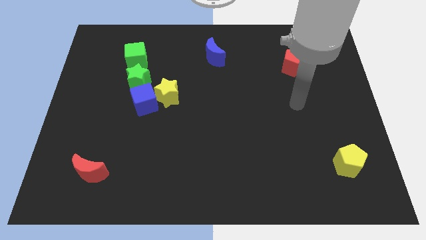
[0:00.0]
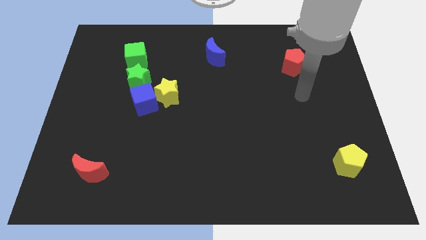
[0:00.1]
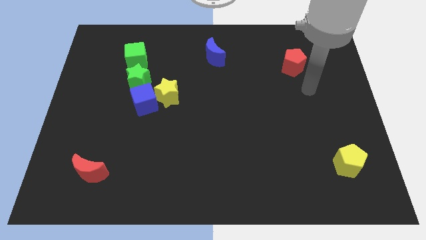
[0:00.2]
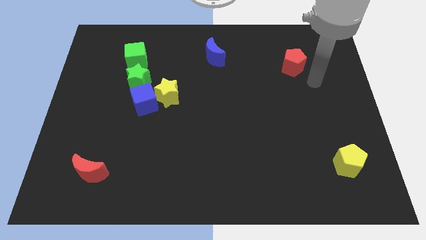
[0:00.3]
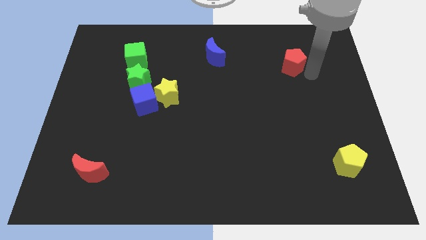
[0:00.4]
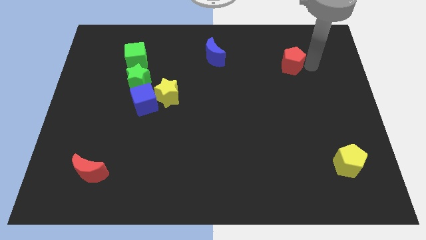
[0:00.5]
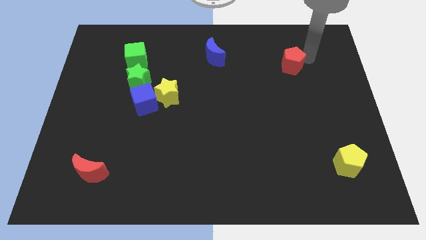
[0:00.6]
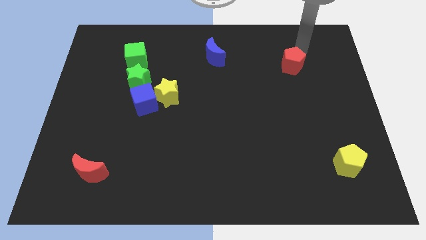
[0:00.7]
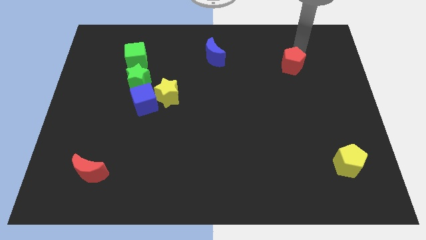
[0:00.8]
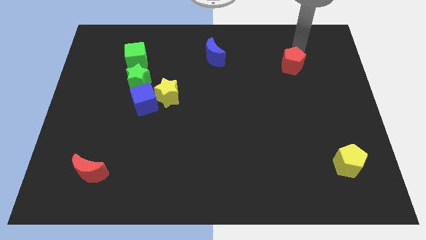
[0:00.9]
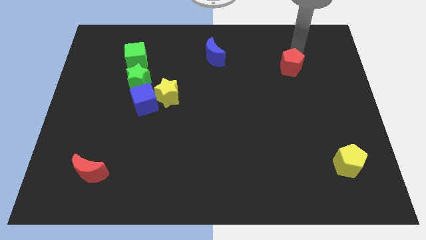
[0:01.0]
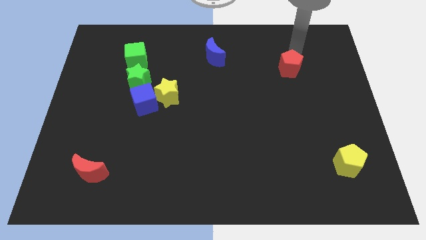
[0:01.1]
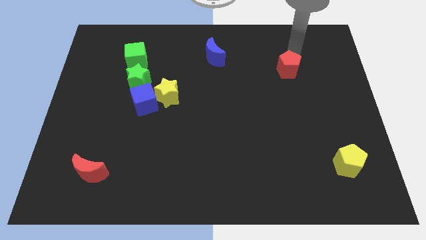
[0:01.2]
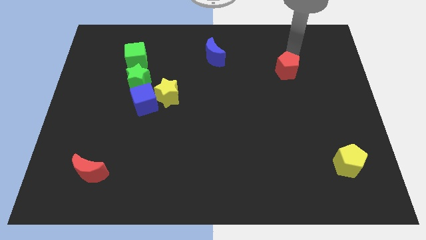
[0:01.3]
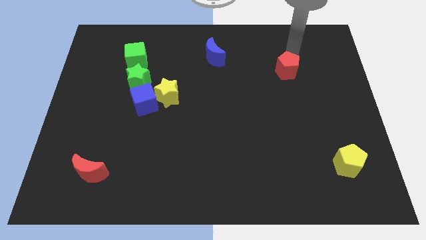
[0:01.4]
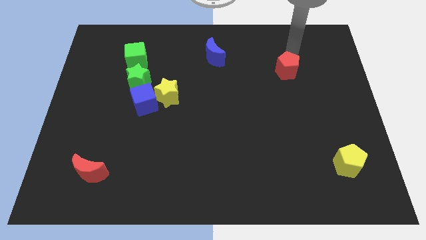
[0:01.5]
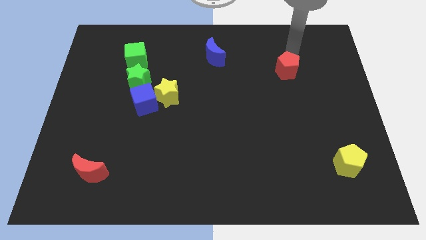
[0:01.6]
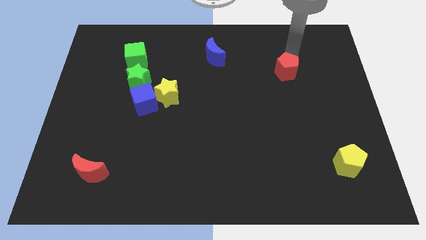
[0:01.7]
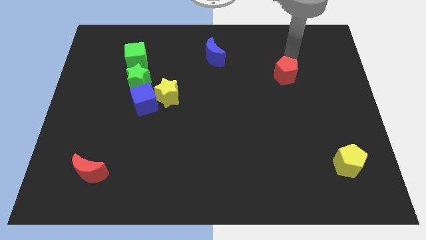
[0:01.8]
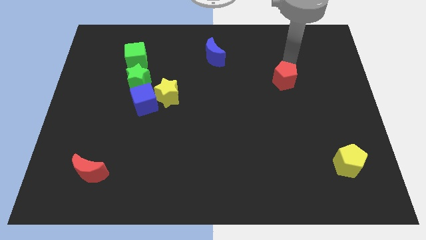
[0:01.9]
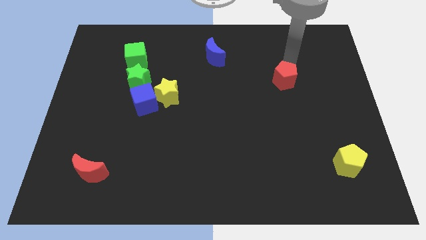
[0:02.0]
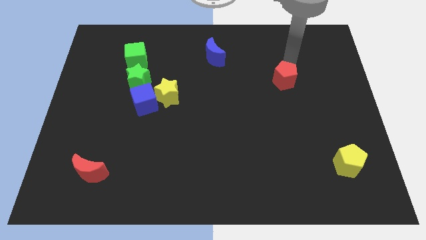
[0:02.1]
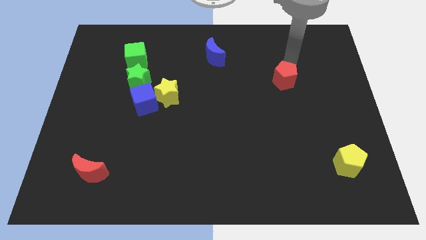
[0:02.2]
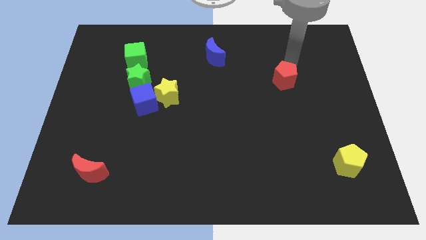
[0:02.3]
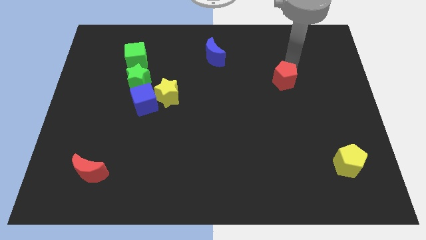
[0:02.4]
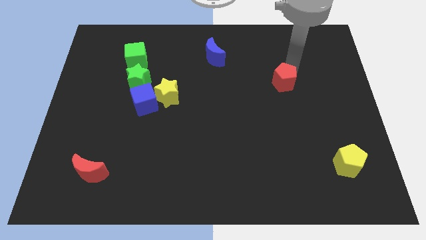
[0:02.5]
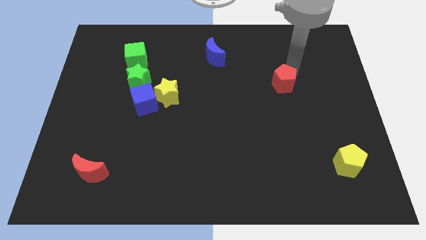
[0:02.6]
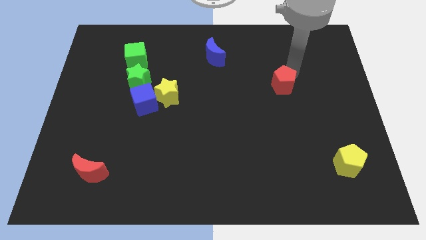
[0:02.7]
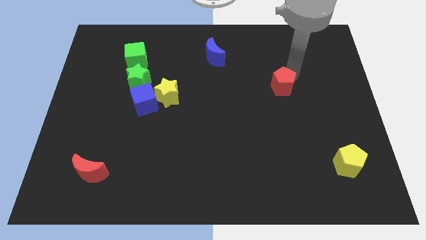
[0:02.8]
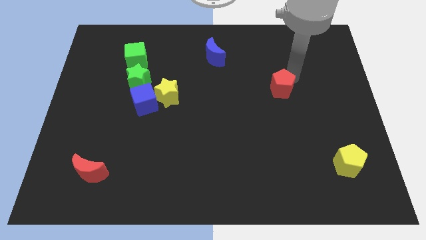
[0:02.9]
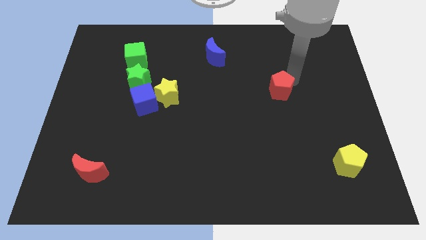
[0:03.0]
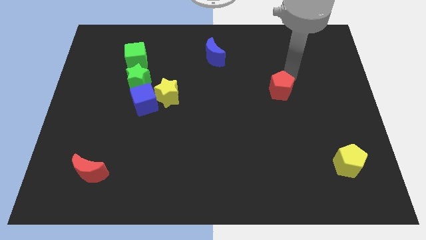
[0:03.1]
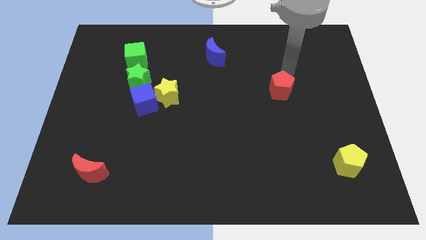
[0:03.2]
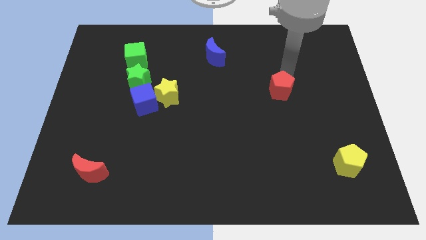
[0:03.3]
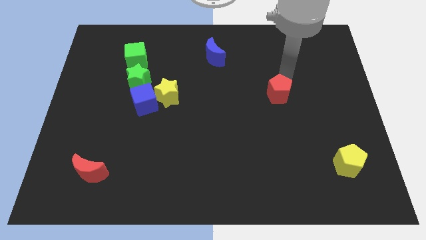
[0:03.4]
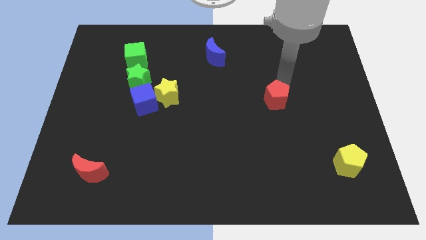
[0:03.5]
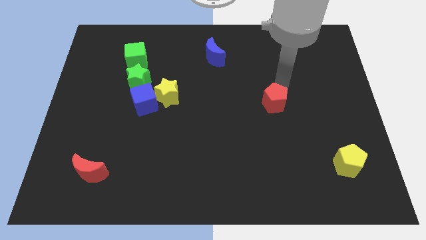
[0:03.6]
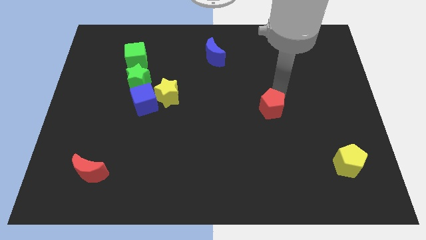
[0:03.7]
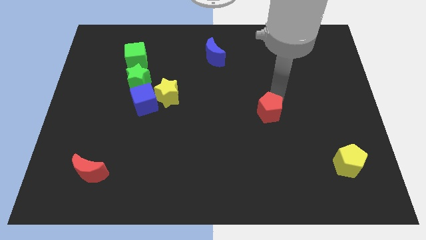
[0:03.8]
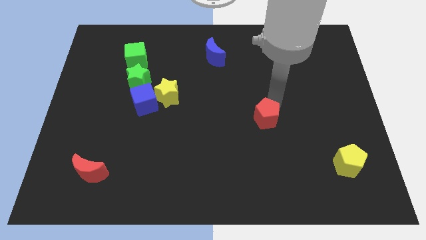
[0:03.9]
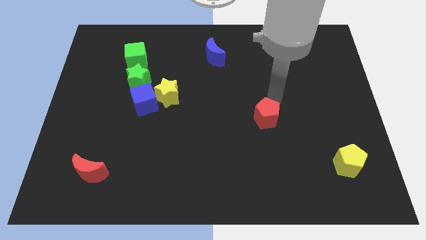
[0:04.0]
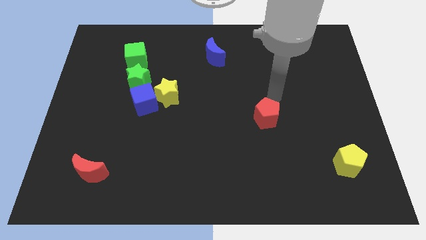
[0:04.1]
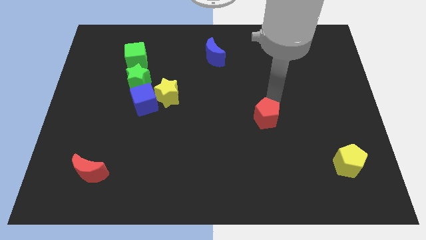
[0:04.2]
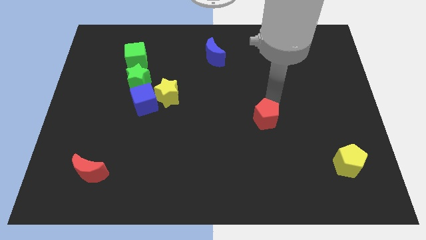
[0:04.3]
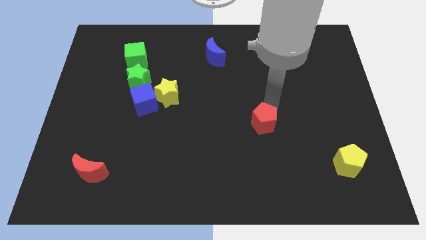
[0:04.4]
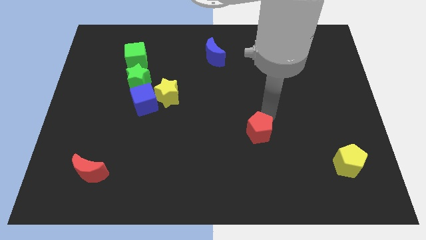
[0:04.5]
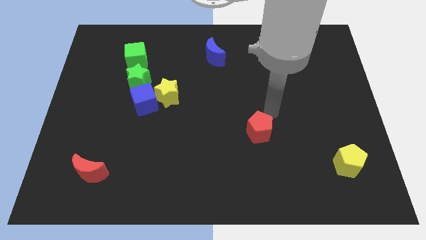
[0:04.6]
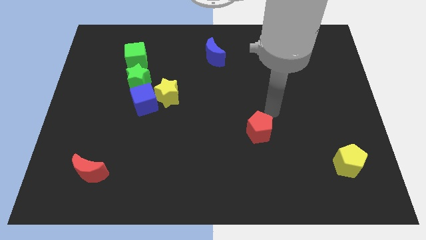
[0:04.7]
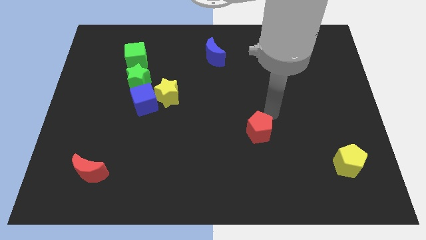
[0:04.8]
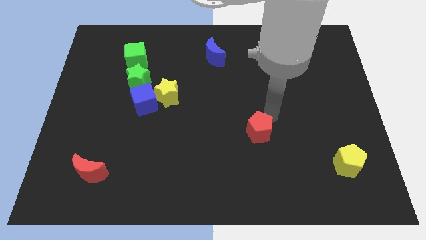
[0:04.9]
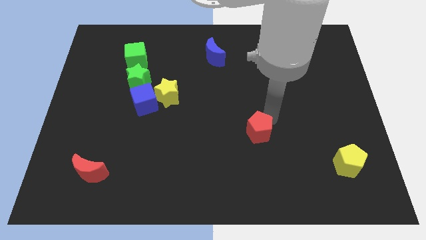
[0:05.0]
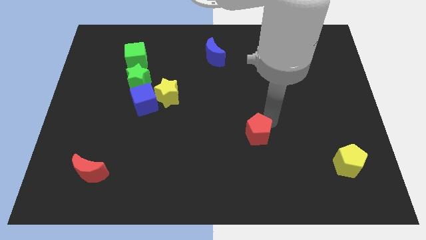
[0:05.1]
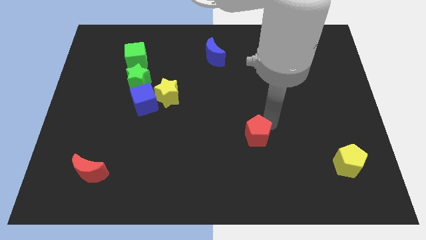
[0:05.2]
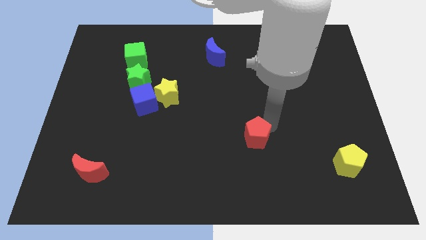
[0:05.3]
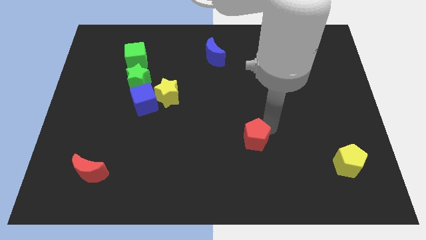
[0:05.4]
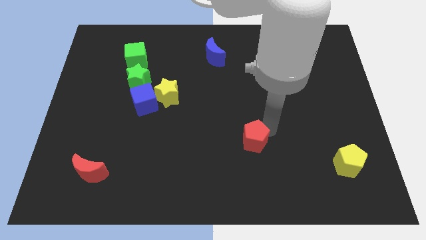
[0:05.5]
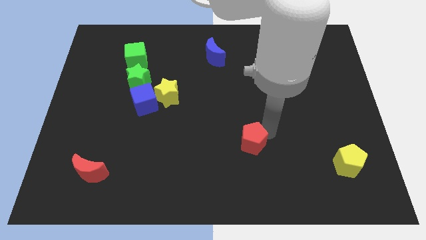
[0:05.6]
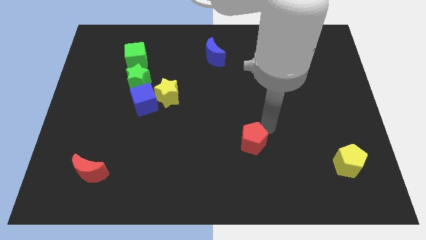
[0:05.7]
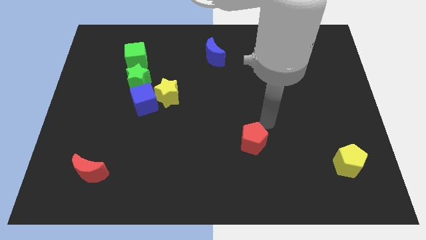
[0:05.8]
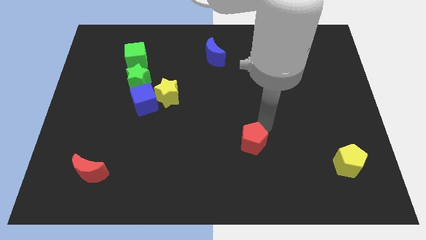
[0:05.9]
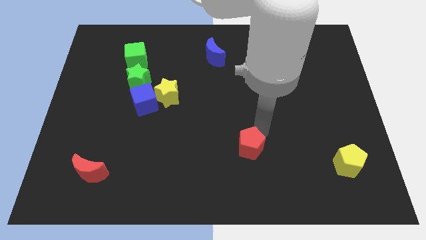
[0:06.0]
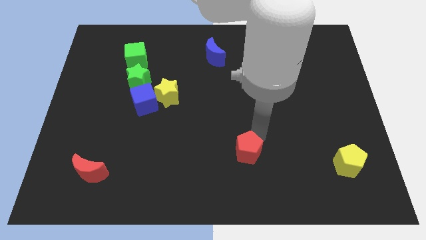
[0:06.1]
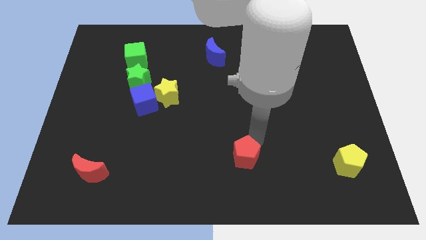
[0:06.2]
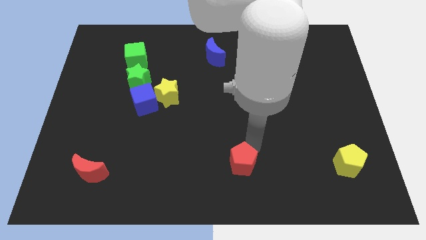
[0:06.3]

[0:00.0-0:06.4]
push the red pentagon to the bottom
